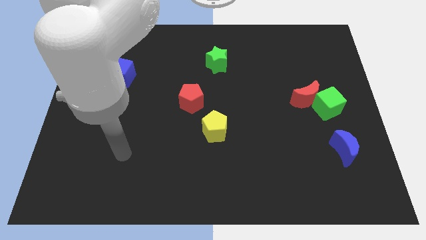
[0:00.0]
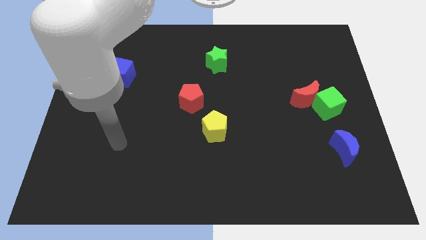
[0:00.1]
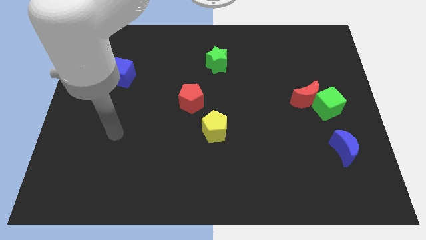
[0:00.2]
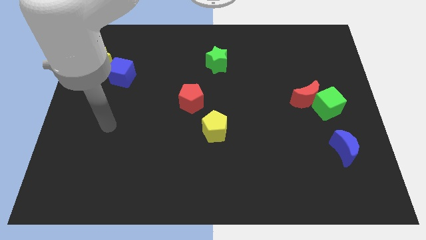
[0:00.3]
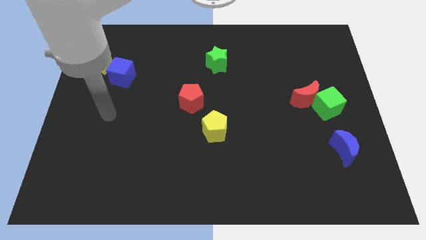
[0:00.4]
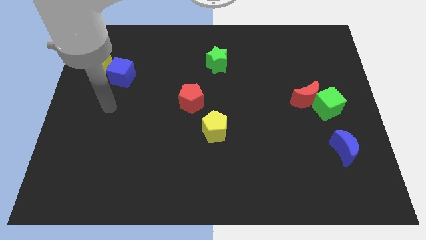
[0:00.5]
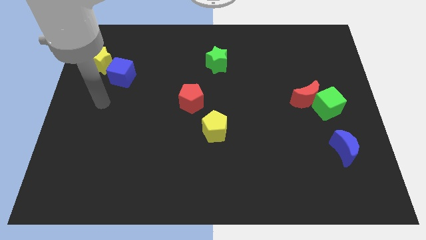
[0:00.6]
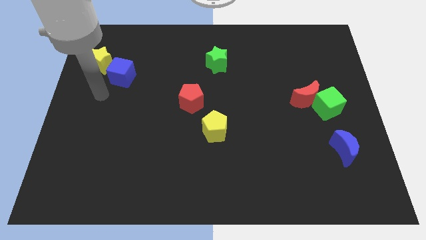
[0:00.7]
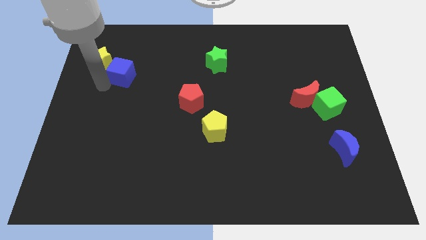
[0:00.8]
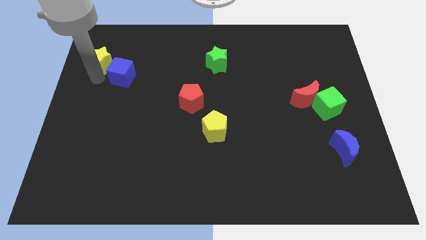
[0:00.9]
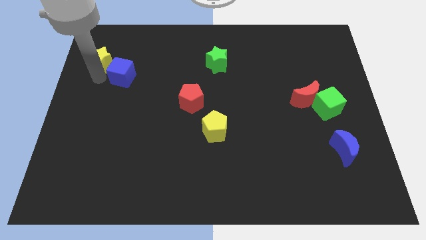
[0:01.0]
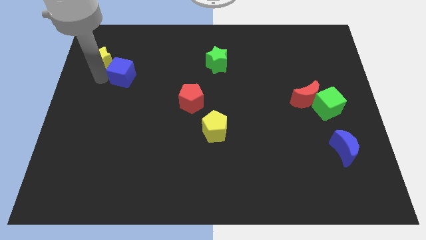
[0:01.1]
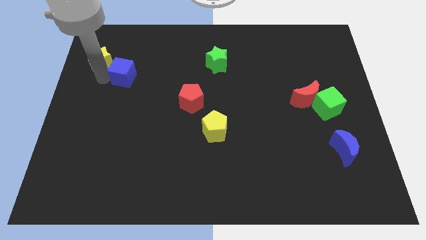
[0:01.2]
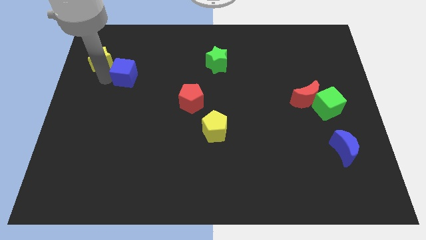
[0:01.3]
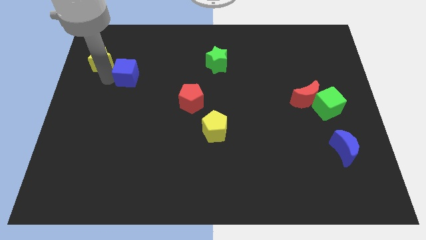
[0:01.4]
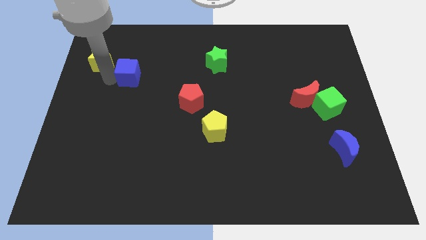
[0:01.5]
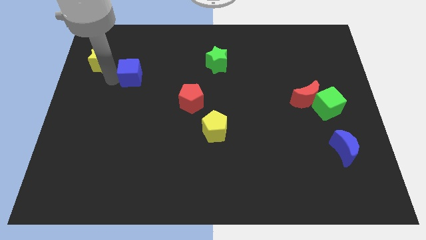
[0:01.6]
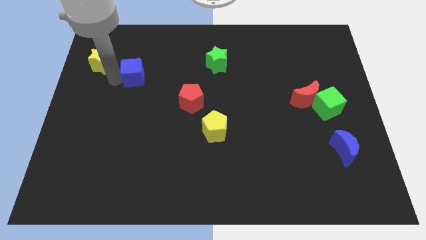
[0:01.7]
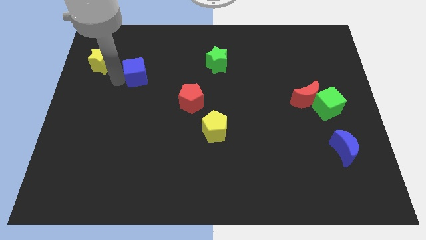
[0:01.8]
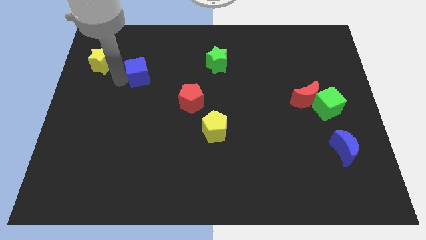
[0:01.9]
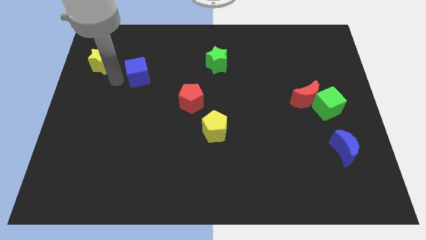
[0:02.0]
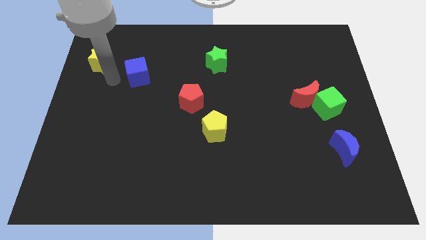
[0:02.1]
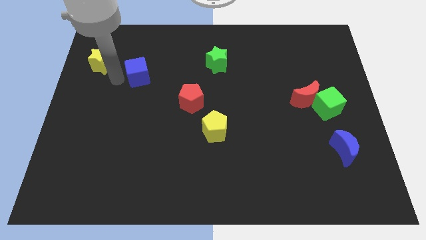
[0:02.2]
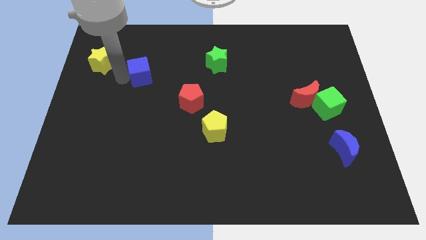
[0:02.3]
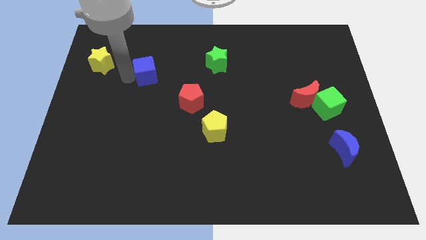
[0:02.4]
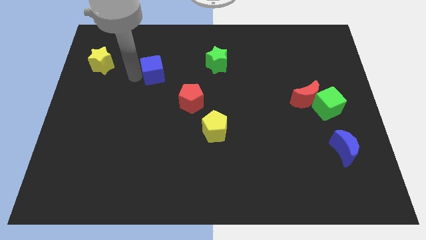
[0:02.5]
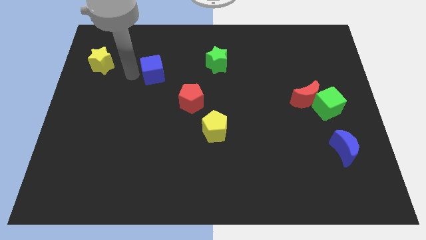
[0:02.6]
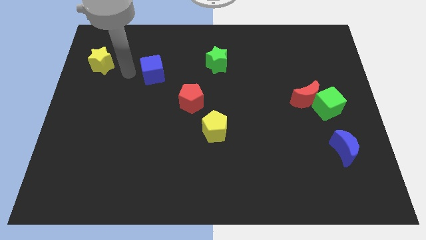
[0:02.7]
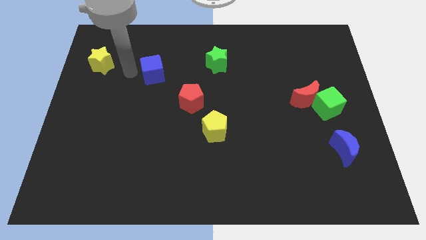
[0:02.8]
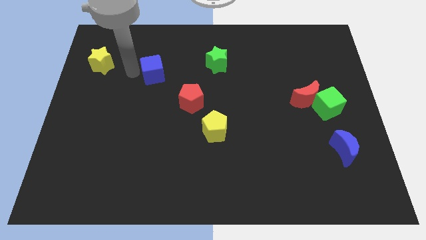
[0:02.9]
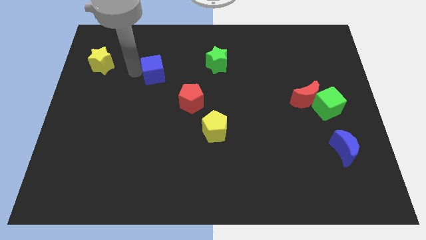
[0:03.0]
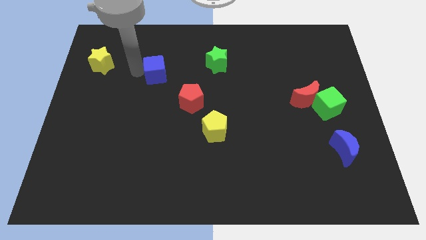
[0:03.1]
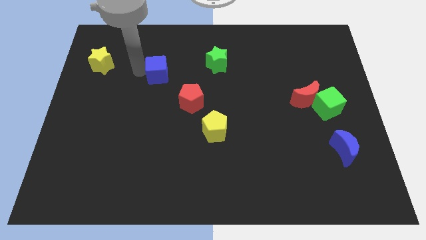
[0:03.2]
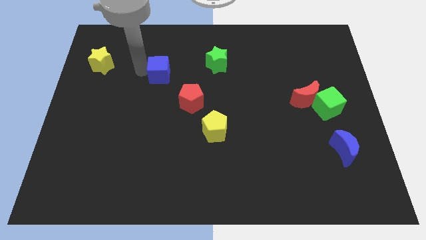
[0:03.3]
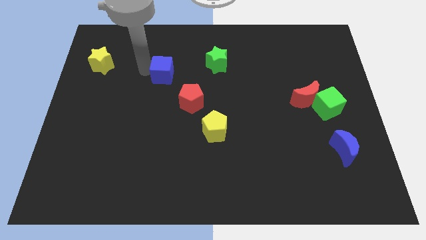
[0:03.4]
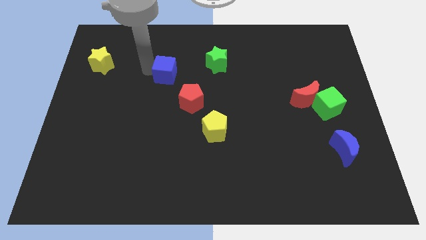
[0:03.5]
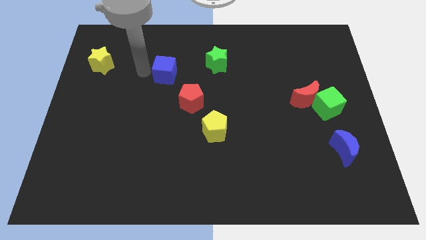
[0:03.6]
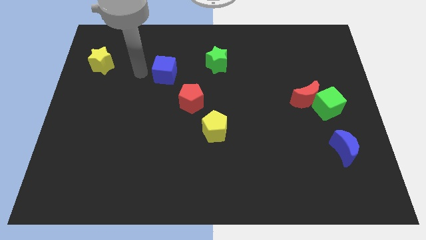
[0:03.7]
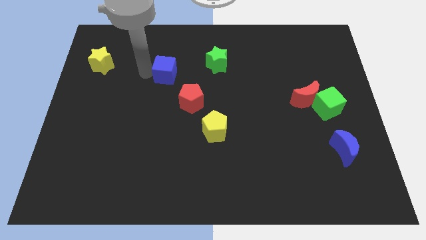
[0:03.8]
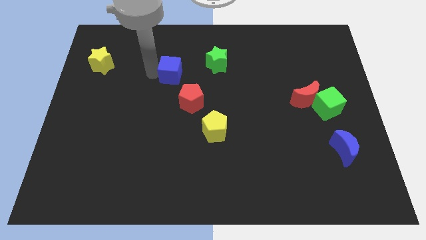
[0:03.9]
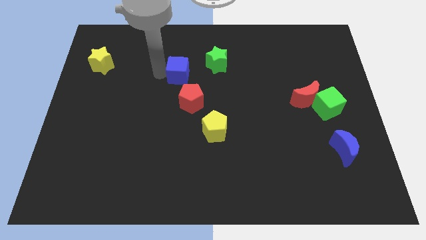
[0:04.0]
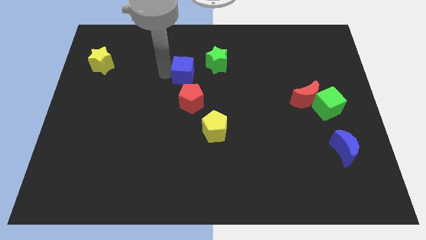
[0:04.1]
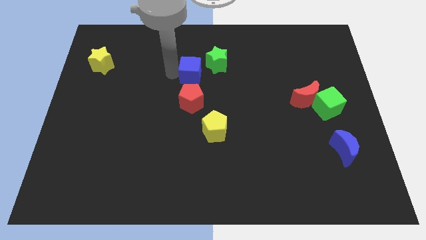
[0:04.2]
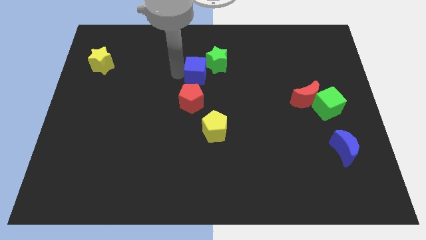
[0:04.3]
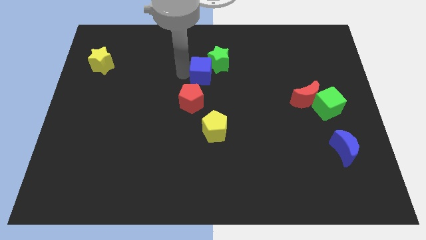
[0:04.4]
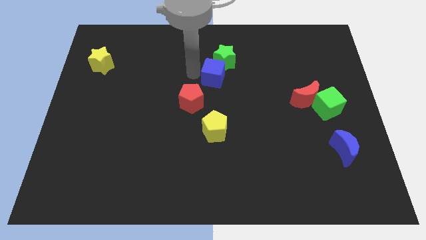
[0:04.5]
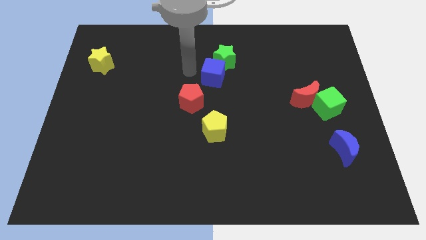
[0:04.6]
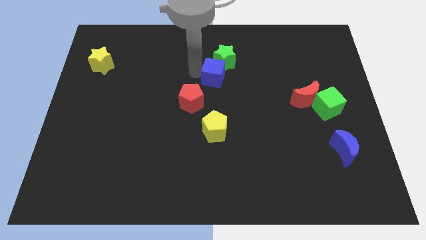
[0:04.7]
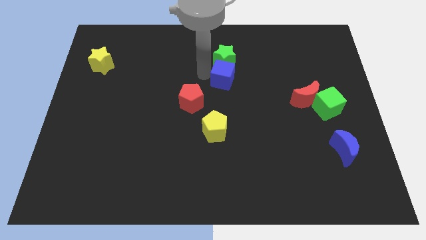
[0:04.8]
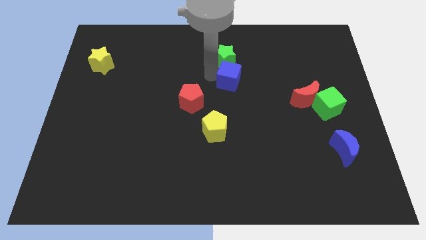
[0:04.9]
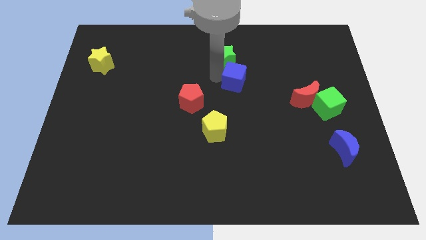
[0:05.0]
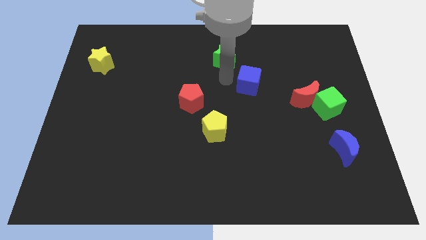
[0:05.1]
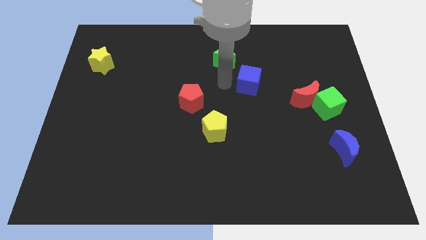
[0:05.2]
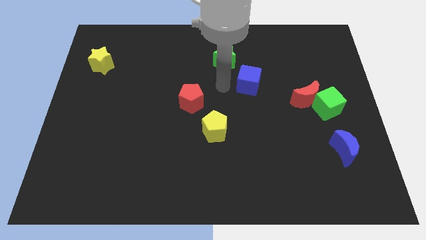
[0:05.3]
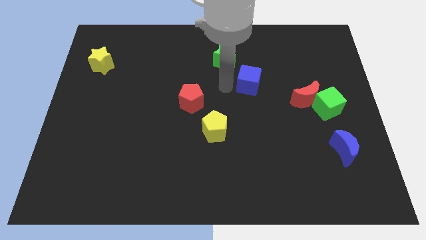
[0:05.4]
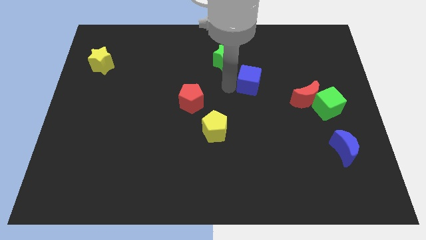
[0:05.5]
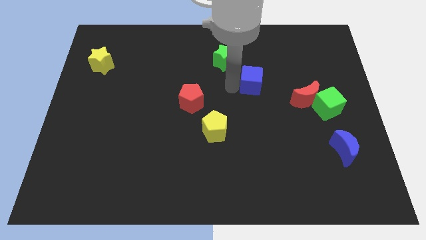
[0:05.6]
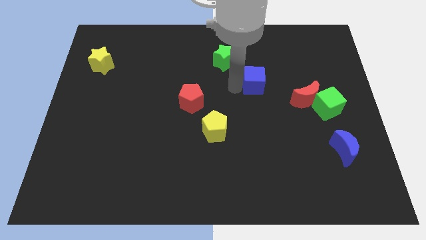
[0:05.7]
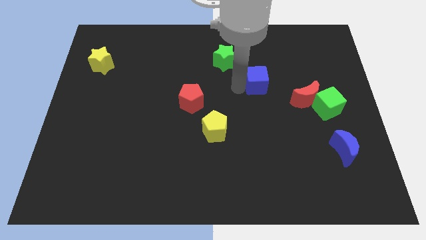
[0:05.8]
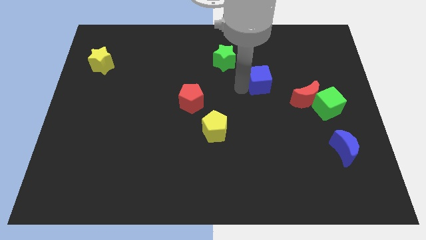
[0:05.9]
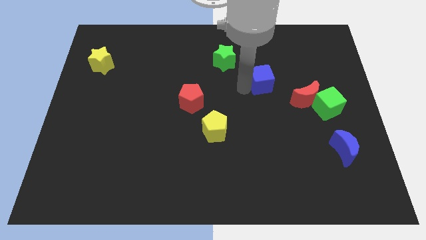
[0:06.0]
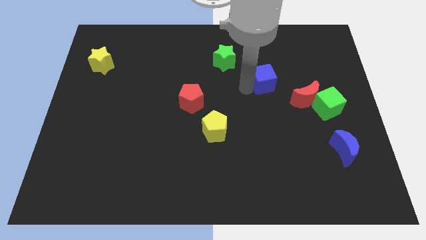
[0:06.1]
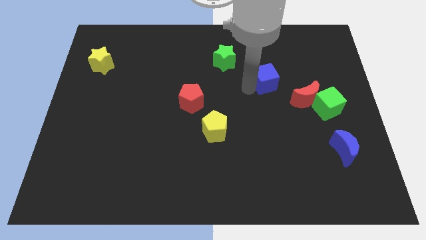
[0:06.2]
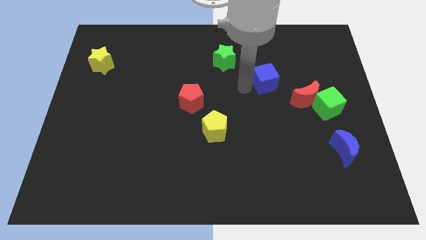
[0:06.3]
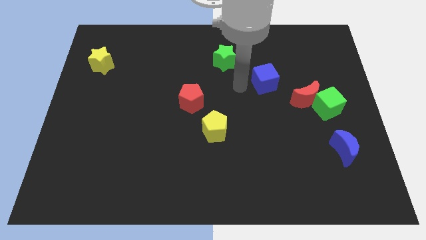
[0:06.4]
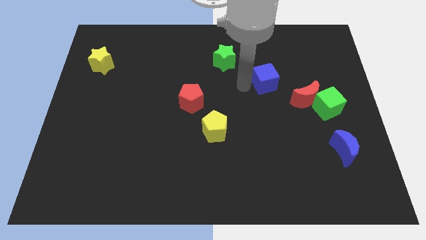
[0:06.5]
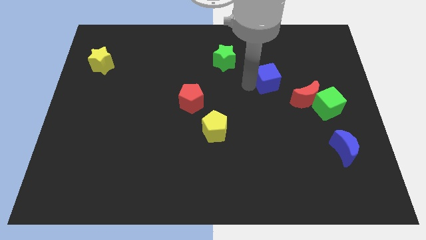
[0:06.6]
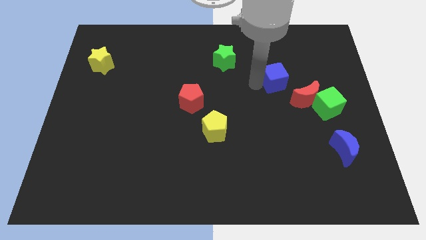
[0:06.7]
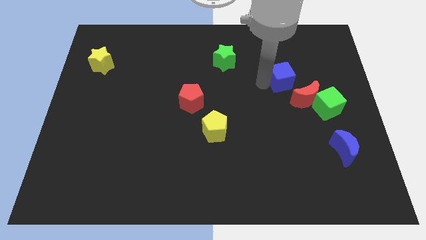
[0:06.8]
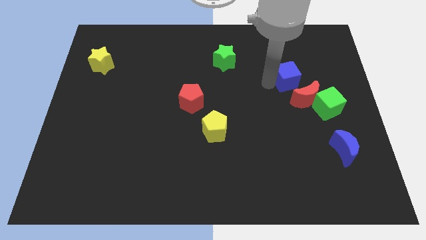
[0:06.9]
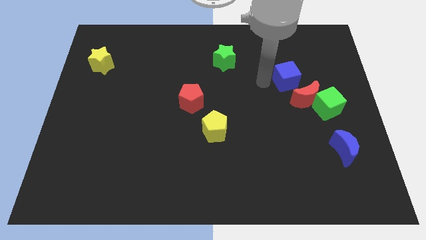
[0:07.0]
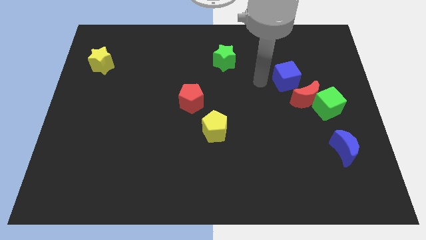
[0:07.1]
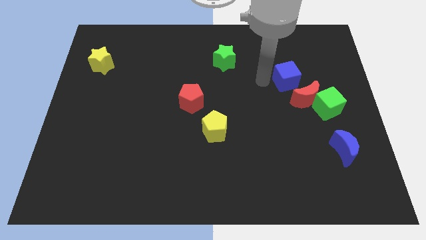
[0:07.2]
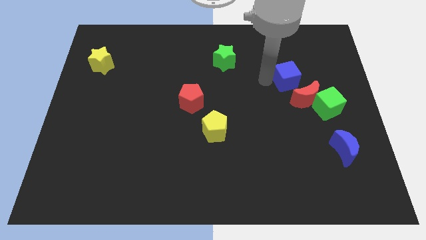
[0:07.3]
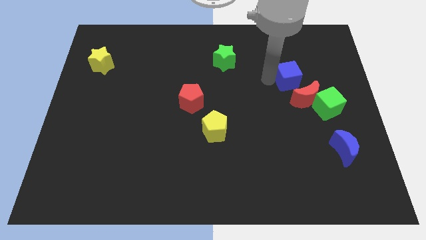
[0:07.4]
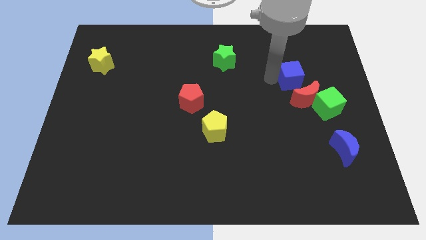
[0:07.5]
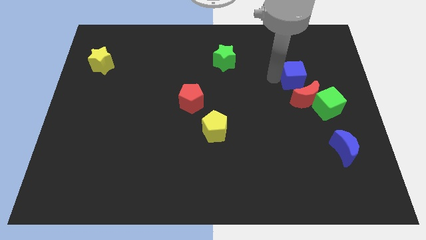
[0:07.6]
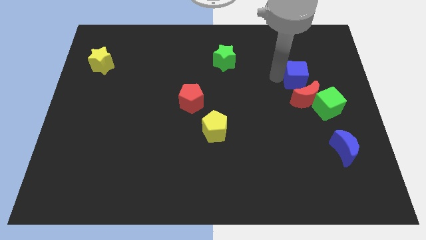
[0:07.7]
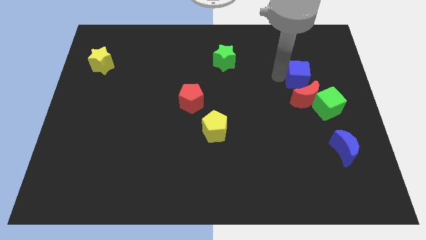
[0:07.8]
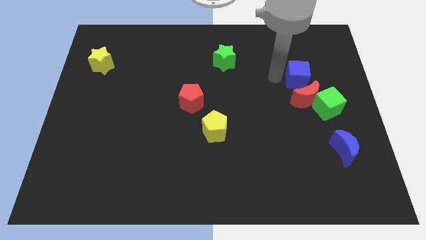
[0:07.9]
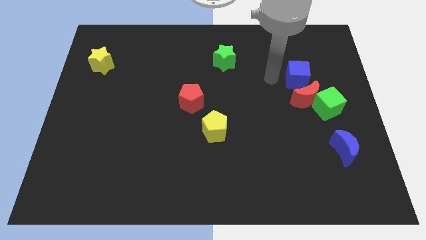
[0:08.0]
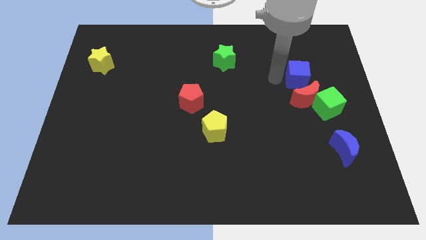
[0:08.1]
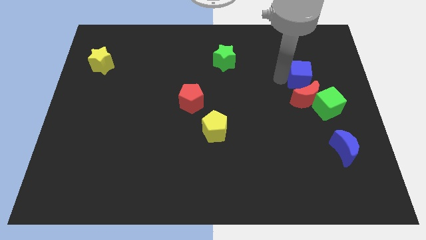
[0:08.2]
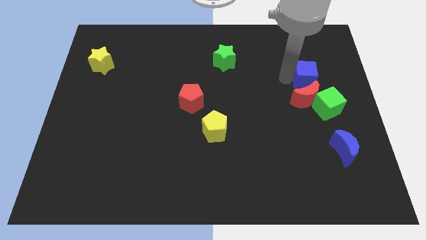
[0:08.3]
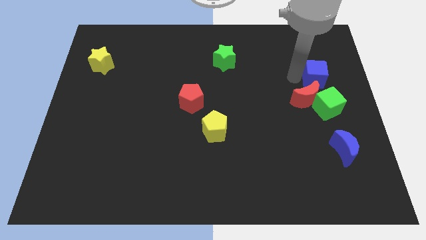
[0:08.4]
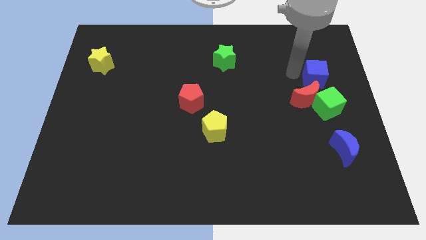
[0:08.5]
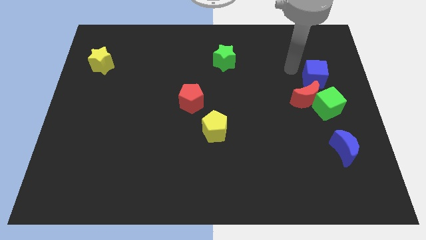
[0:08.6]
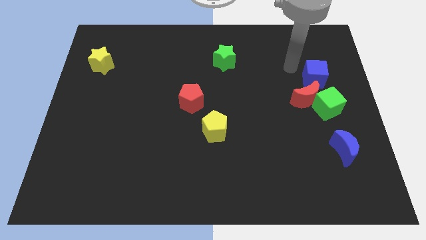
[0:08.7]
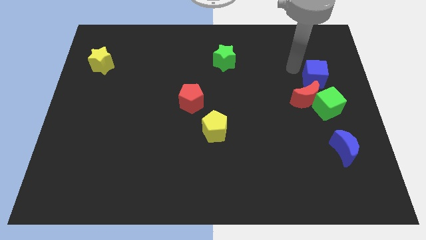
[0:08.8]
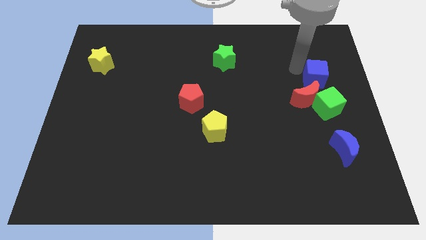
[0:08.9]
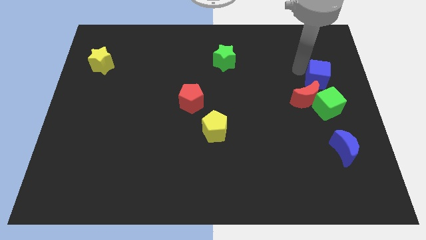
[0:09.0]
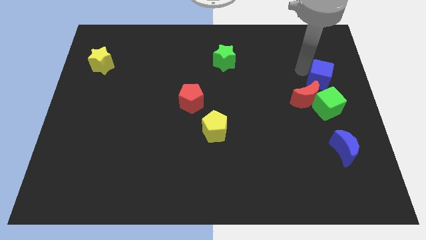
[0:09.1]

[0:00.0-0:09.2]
move the blue cube to the right side of the board
